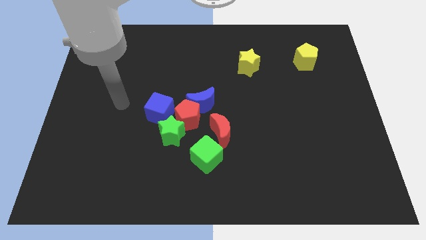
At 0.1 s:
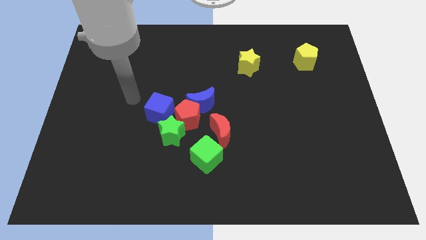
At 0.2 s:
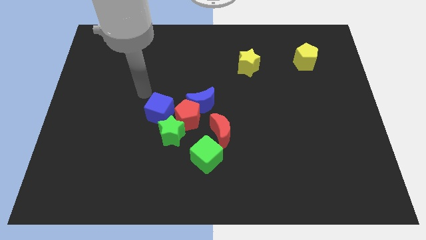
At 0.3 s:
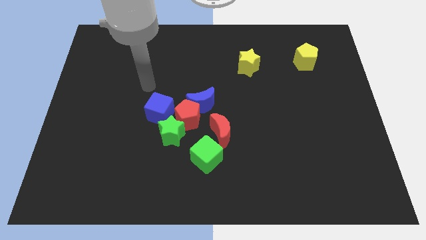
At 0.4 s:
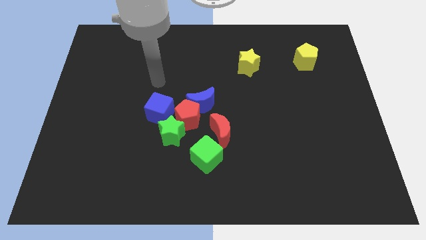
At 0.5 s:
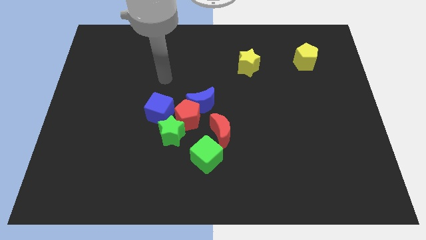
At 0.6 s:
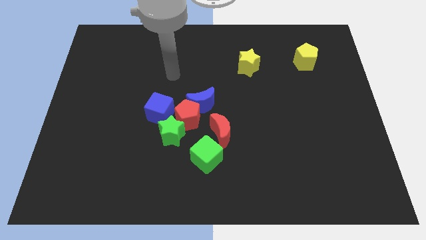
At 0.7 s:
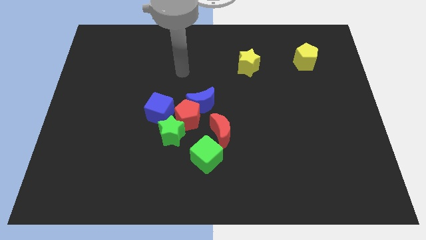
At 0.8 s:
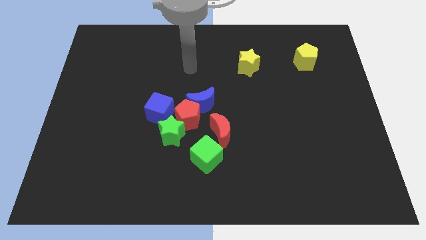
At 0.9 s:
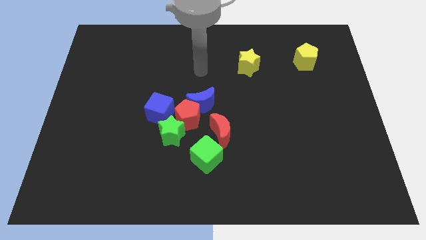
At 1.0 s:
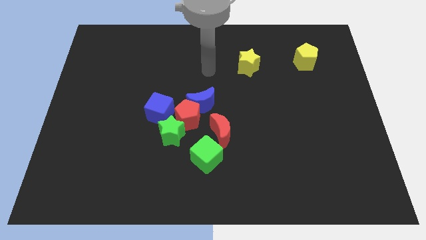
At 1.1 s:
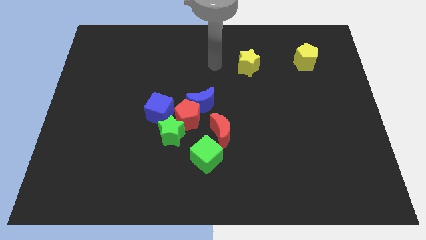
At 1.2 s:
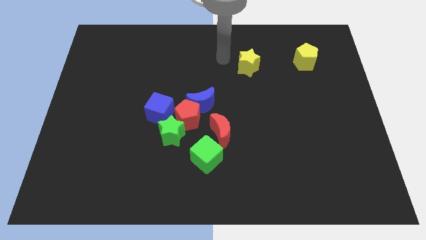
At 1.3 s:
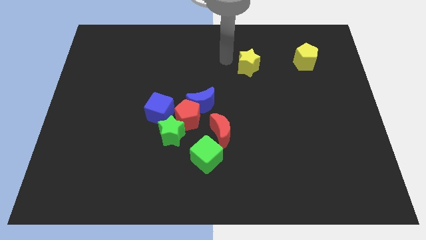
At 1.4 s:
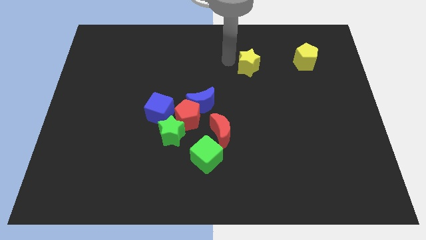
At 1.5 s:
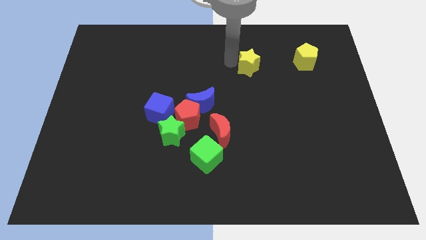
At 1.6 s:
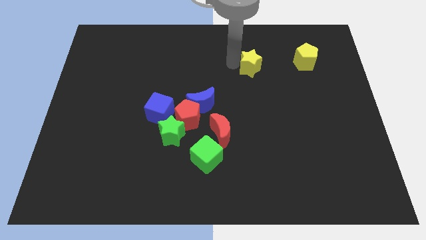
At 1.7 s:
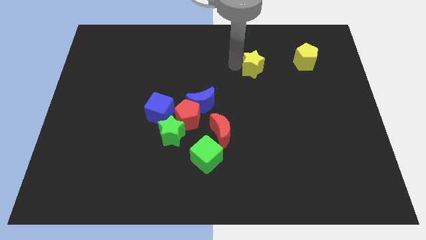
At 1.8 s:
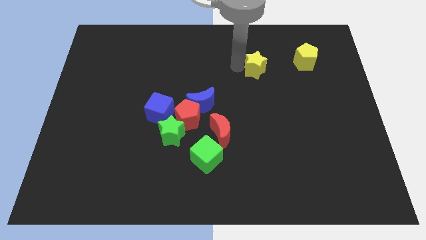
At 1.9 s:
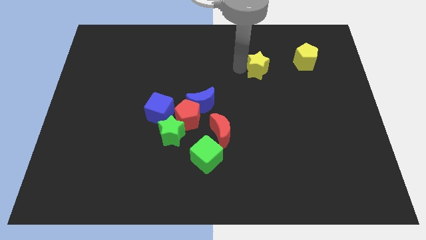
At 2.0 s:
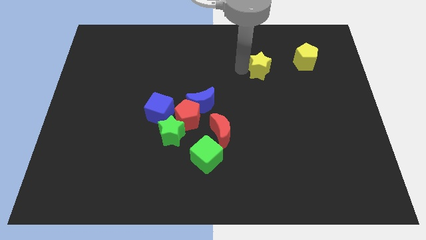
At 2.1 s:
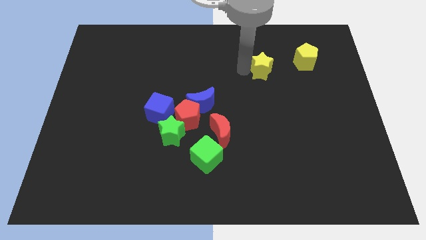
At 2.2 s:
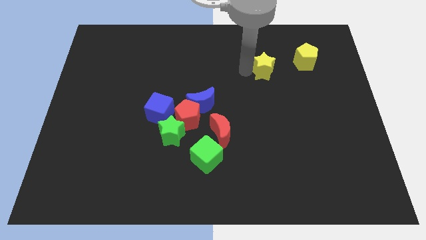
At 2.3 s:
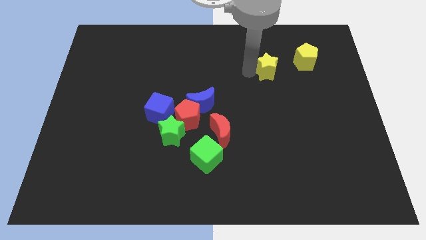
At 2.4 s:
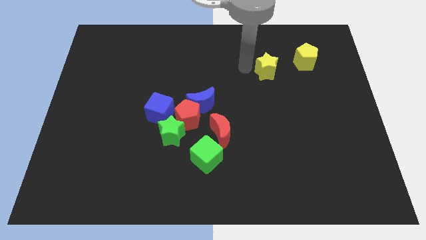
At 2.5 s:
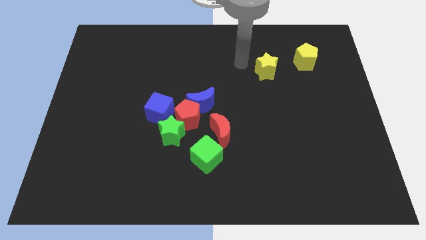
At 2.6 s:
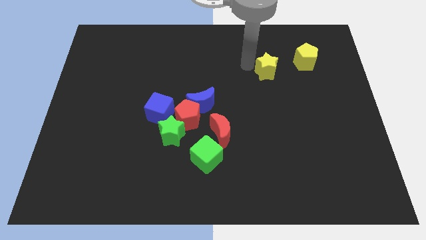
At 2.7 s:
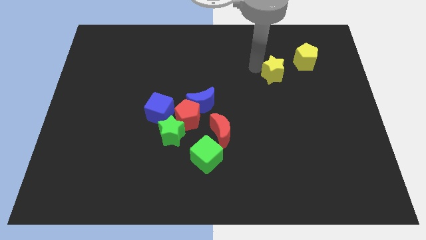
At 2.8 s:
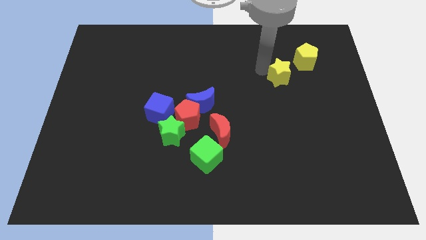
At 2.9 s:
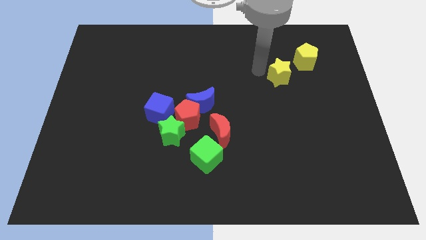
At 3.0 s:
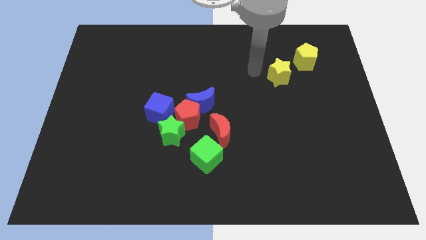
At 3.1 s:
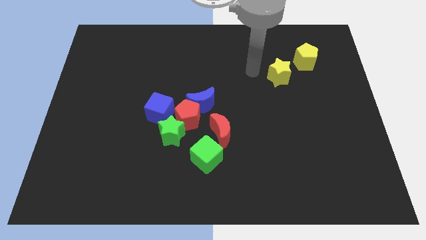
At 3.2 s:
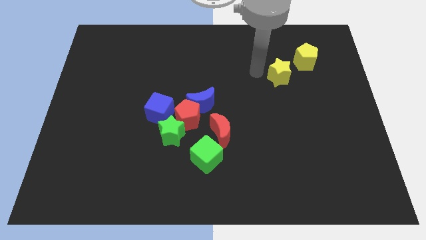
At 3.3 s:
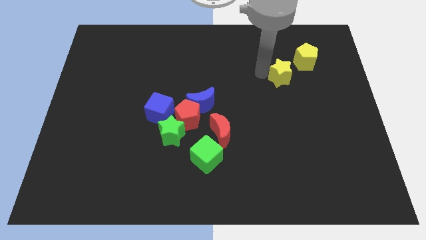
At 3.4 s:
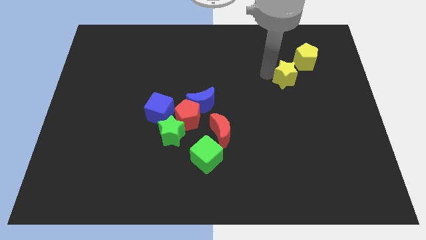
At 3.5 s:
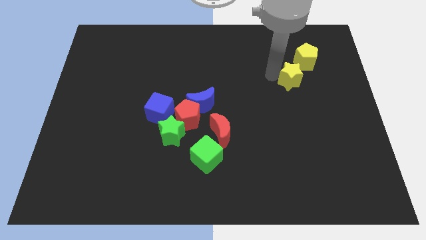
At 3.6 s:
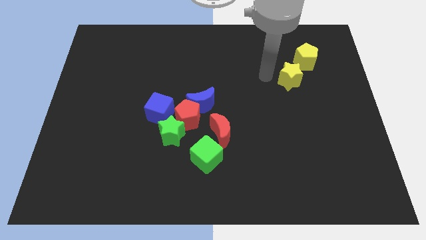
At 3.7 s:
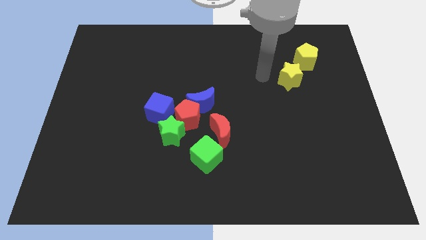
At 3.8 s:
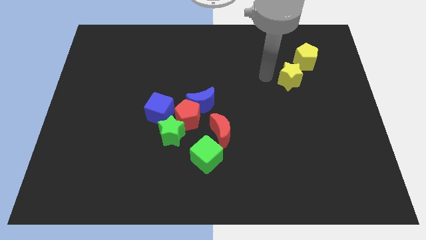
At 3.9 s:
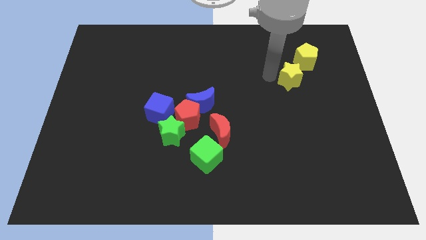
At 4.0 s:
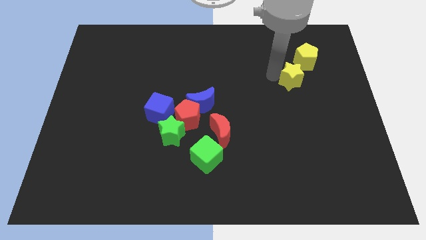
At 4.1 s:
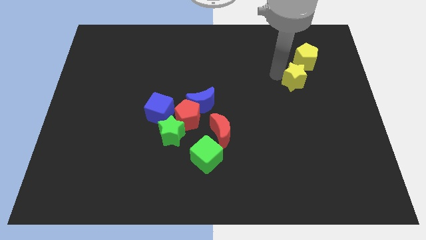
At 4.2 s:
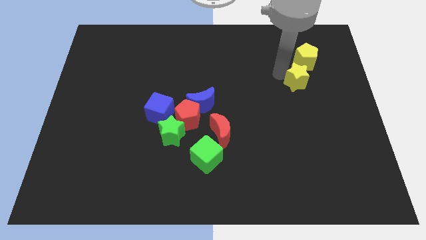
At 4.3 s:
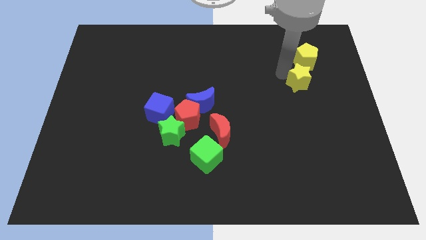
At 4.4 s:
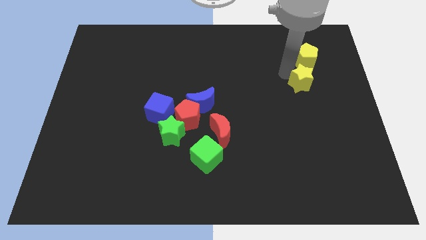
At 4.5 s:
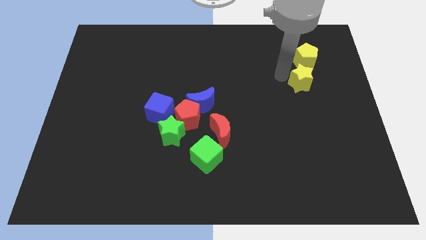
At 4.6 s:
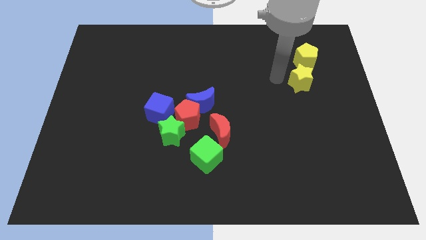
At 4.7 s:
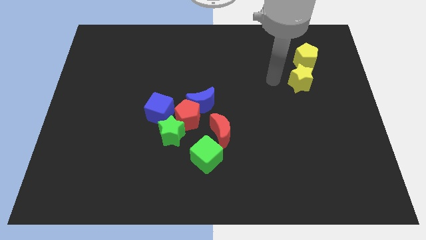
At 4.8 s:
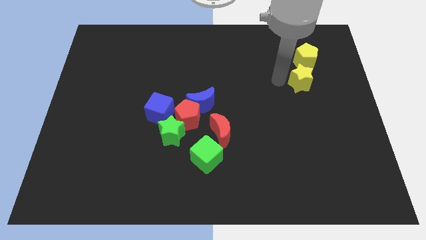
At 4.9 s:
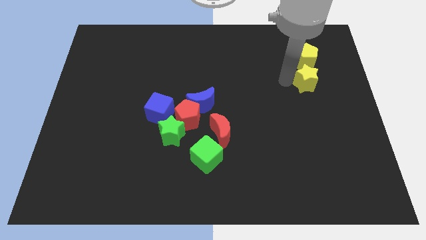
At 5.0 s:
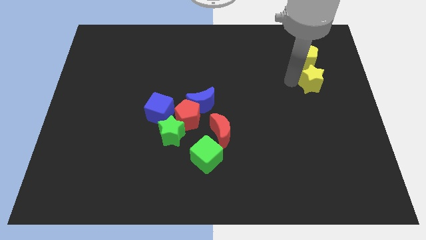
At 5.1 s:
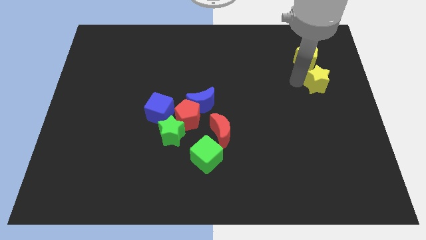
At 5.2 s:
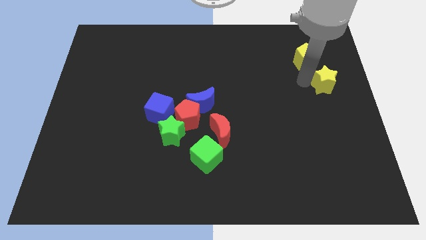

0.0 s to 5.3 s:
move the yellow star to the right side of the board

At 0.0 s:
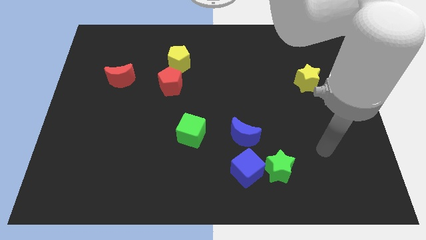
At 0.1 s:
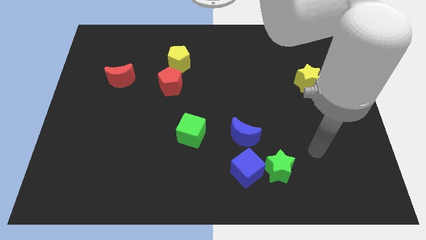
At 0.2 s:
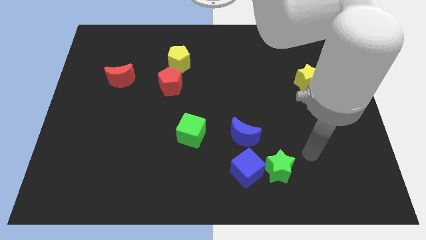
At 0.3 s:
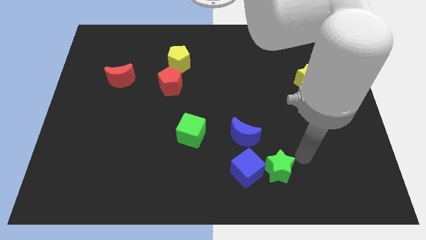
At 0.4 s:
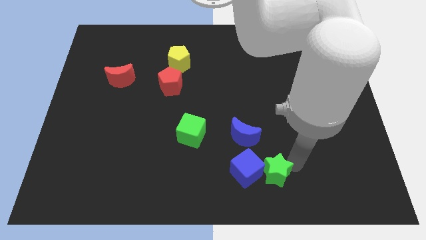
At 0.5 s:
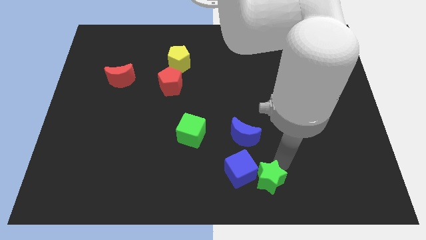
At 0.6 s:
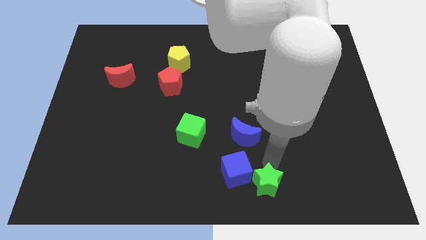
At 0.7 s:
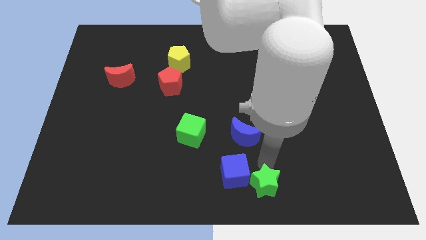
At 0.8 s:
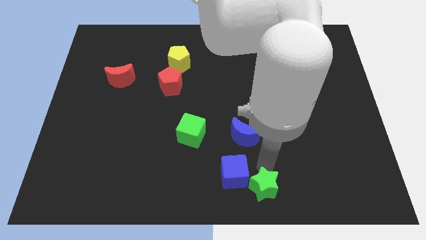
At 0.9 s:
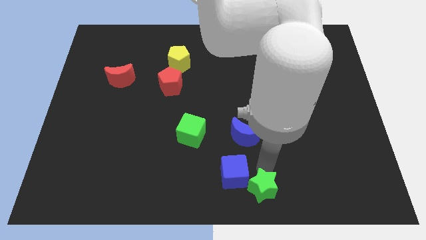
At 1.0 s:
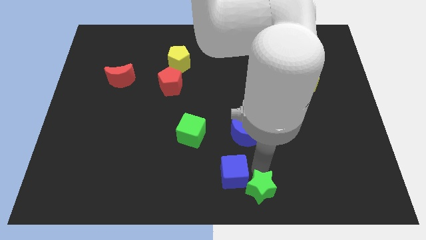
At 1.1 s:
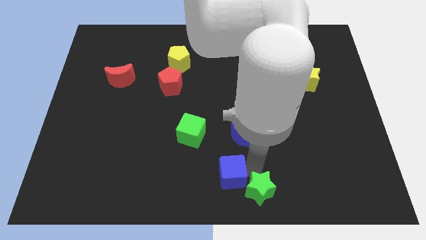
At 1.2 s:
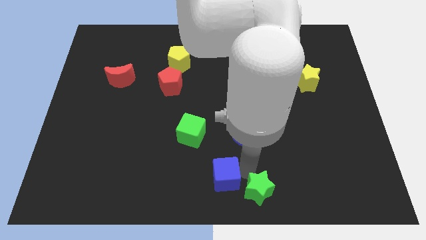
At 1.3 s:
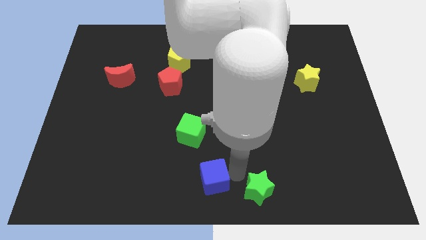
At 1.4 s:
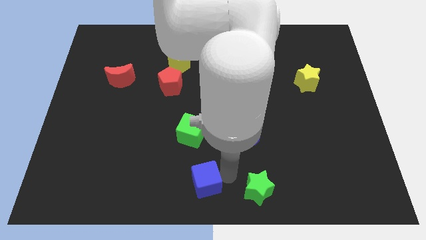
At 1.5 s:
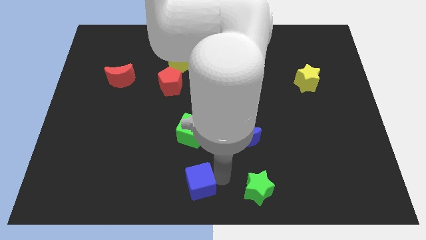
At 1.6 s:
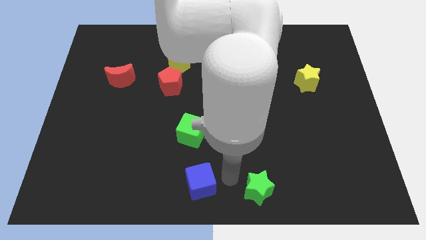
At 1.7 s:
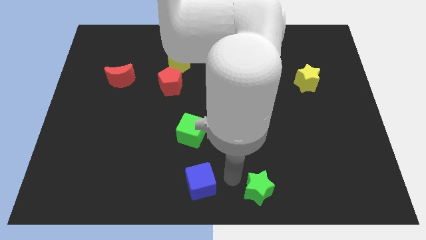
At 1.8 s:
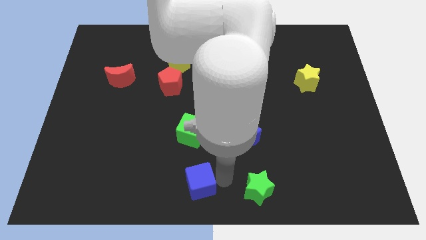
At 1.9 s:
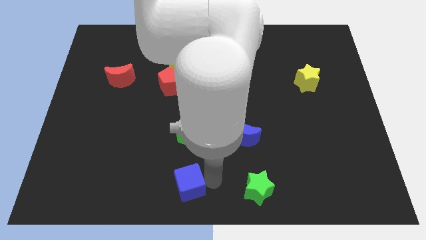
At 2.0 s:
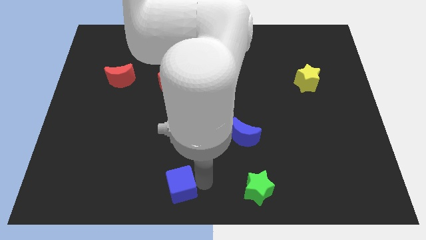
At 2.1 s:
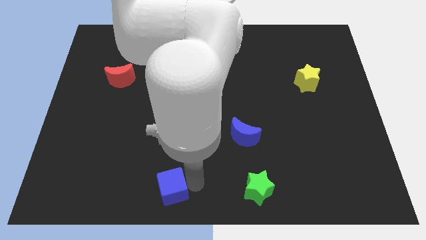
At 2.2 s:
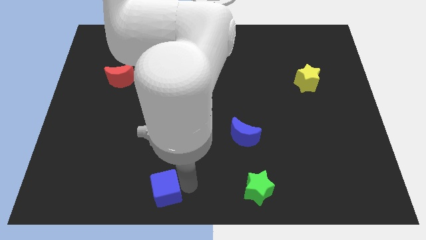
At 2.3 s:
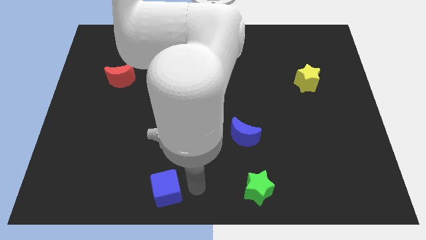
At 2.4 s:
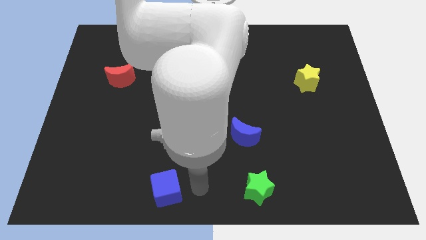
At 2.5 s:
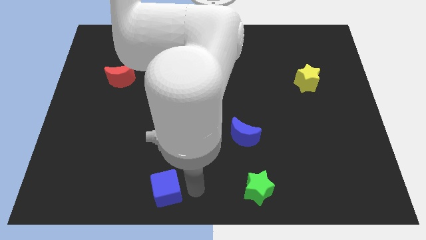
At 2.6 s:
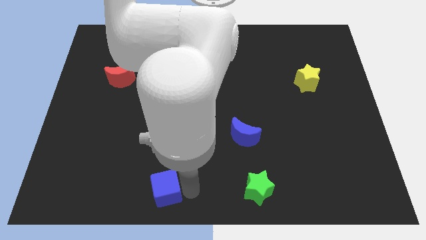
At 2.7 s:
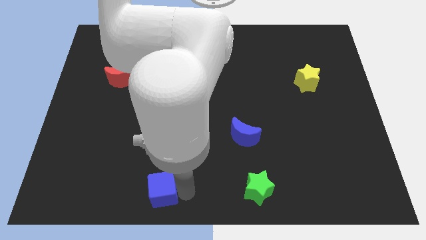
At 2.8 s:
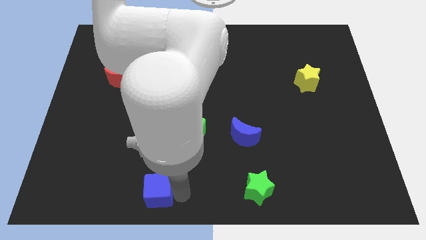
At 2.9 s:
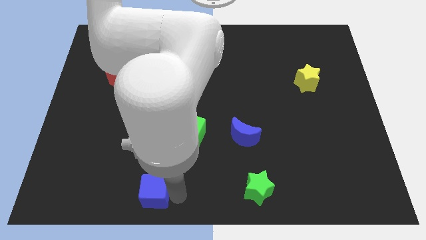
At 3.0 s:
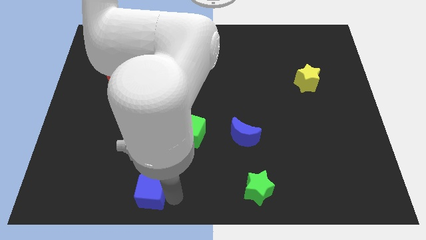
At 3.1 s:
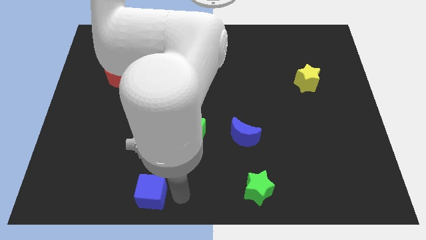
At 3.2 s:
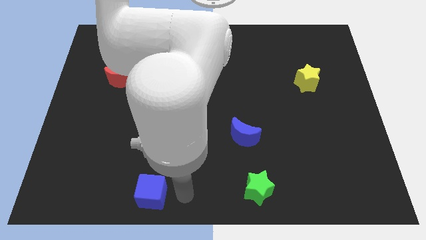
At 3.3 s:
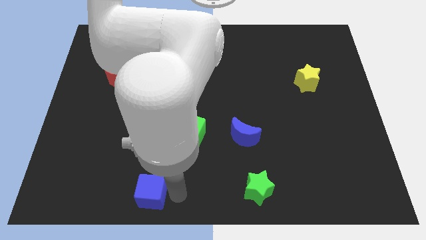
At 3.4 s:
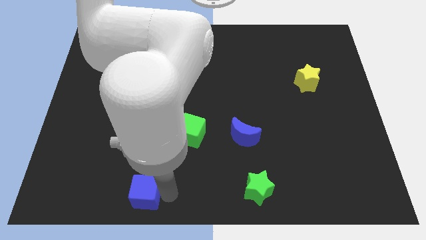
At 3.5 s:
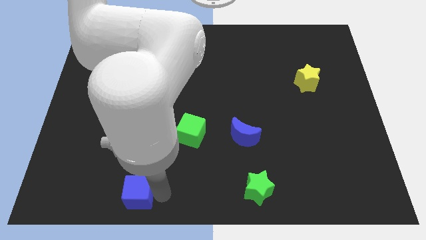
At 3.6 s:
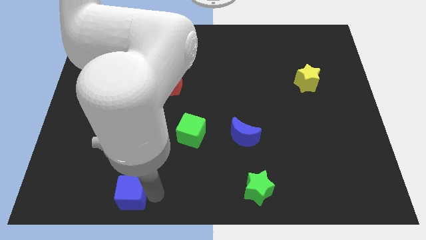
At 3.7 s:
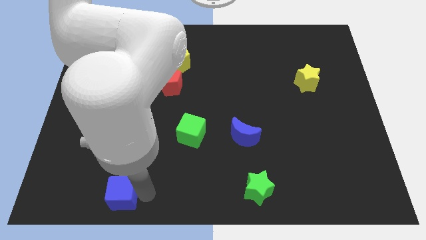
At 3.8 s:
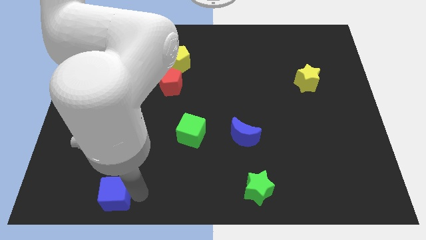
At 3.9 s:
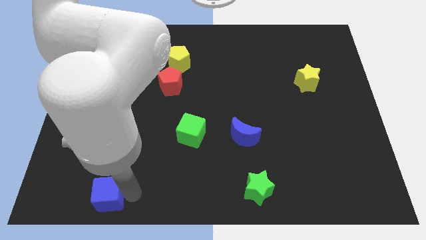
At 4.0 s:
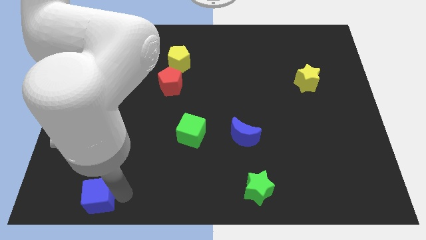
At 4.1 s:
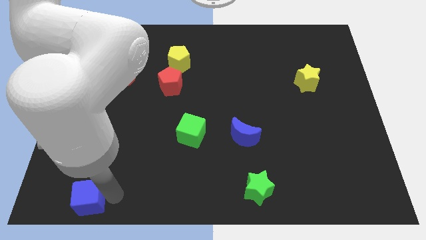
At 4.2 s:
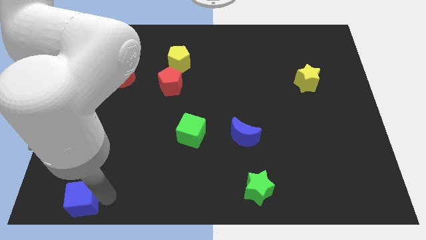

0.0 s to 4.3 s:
push the blue cube to the bottom left
